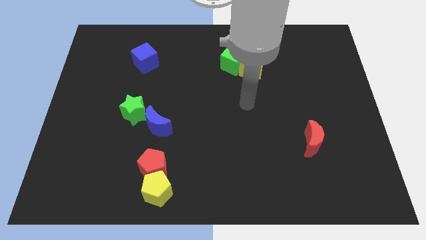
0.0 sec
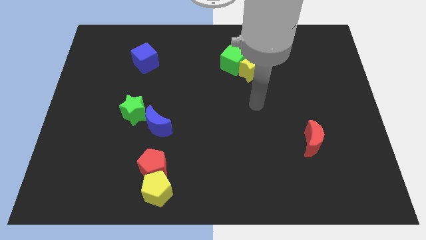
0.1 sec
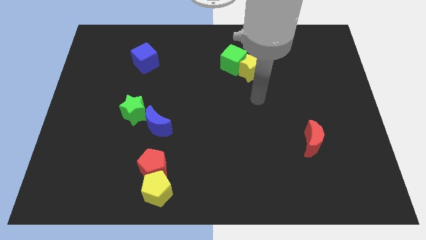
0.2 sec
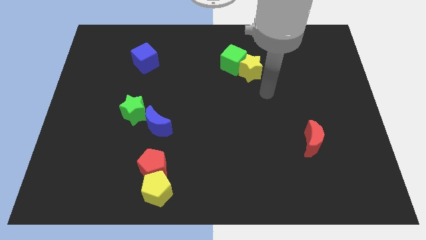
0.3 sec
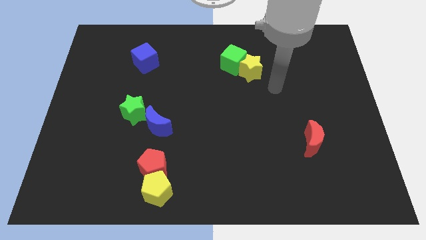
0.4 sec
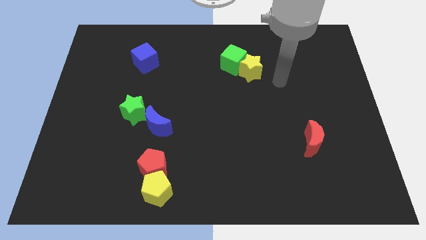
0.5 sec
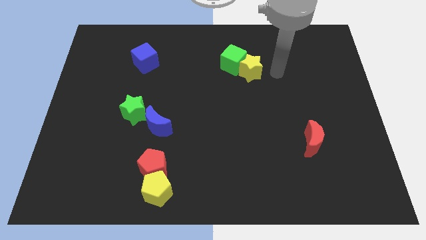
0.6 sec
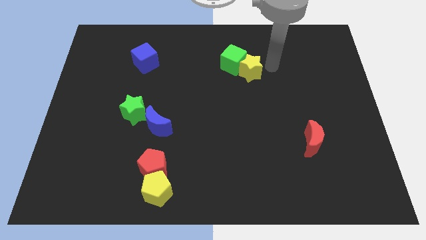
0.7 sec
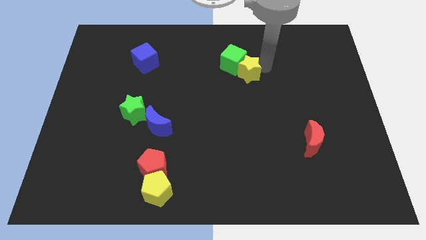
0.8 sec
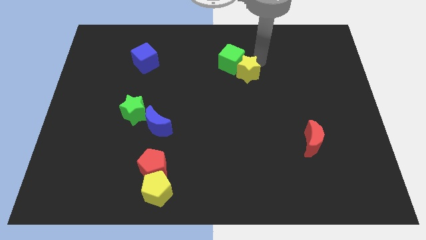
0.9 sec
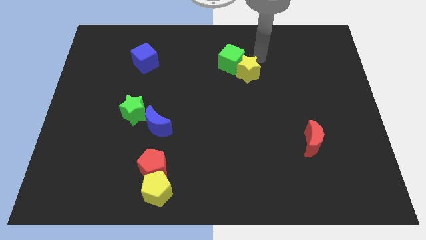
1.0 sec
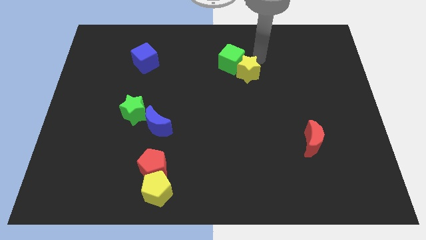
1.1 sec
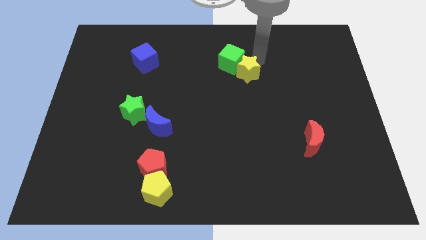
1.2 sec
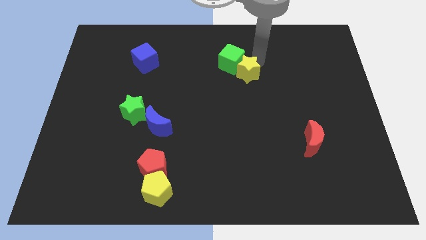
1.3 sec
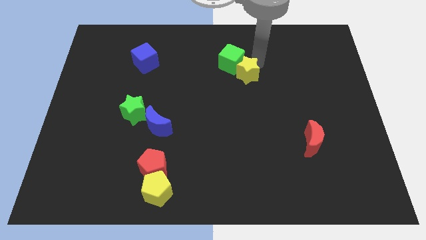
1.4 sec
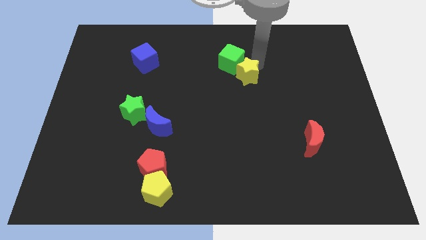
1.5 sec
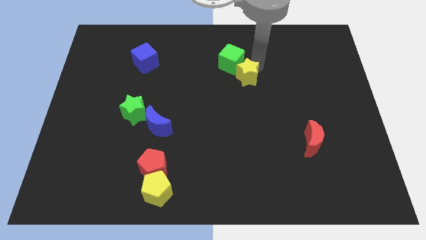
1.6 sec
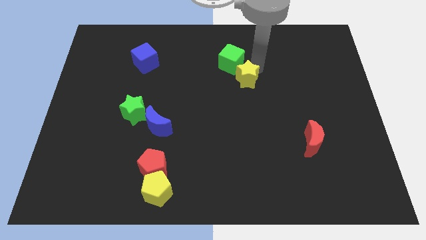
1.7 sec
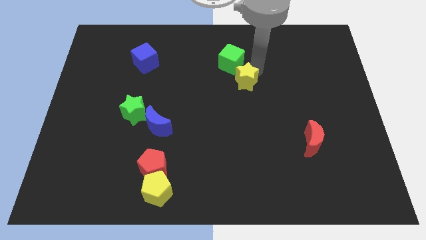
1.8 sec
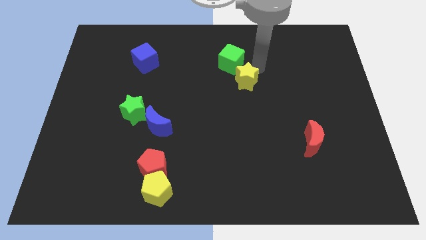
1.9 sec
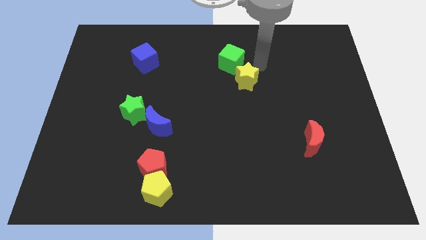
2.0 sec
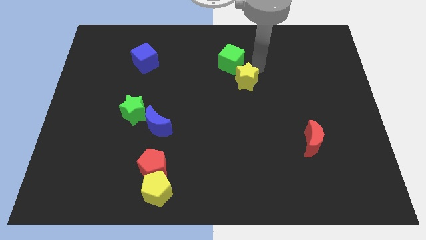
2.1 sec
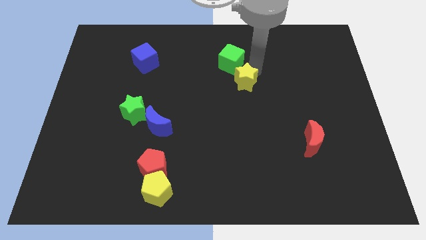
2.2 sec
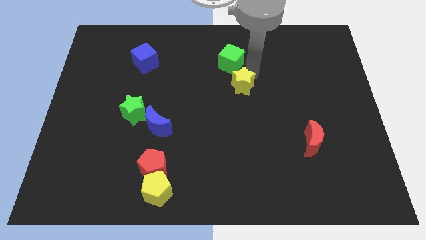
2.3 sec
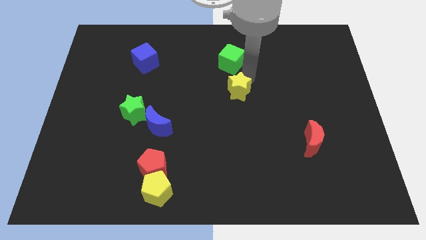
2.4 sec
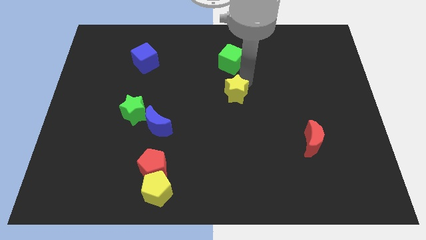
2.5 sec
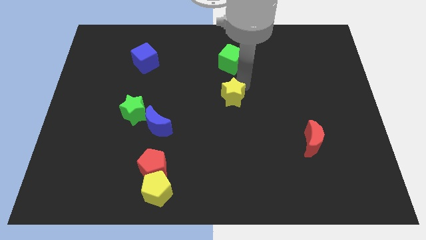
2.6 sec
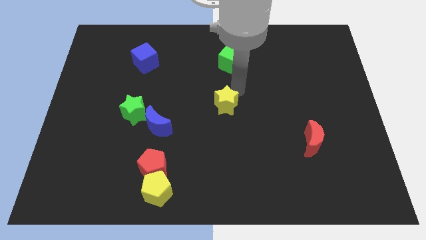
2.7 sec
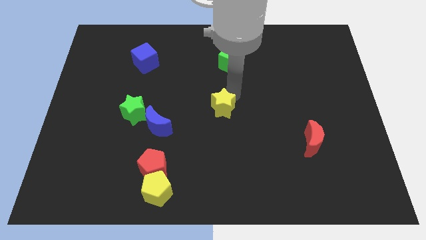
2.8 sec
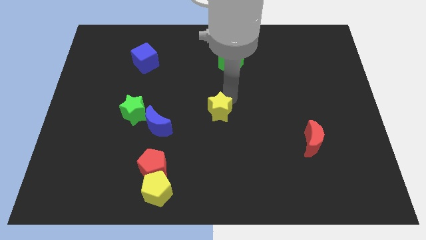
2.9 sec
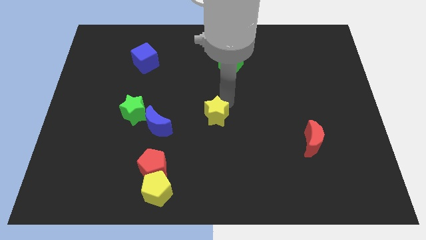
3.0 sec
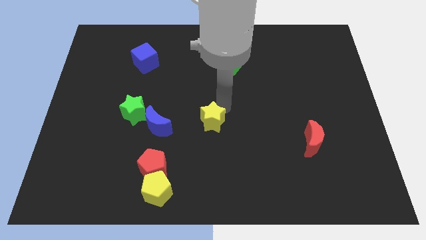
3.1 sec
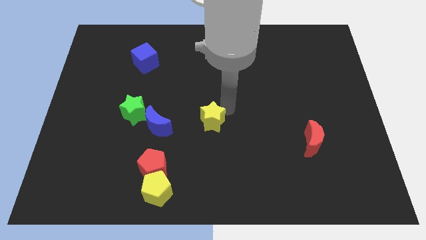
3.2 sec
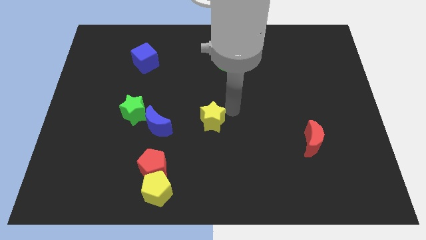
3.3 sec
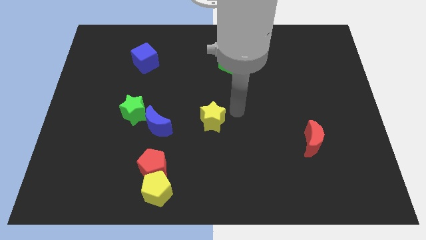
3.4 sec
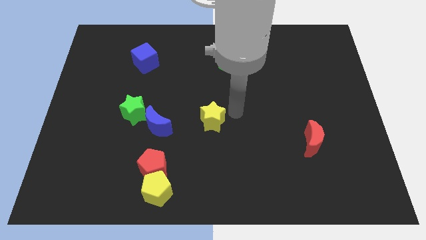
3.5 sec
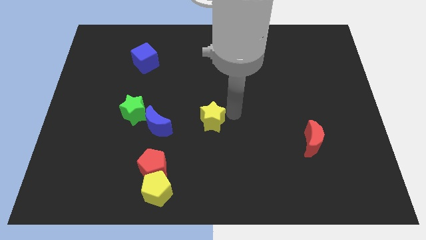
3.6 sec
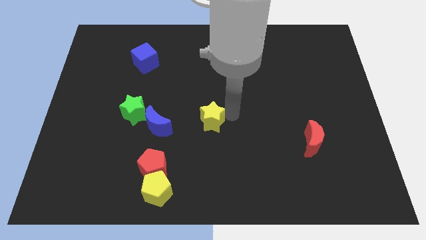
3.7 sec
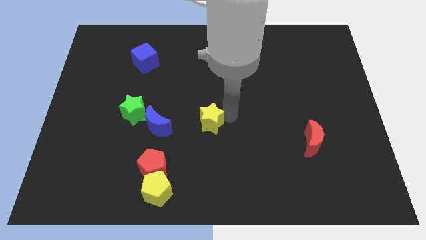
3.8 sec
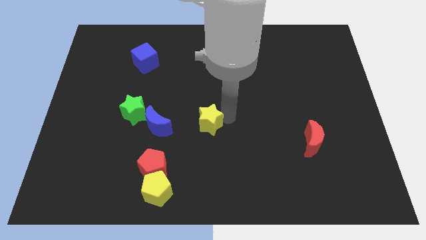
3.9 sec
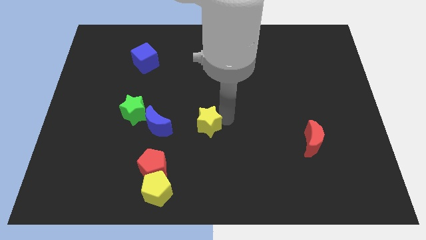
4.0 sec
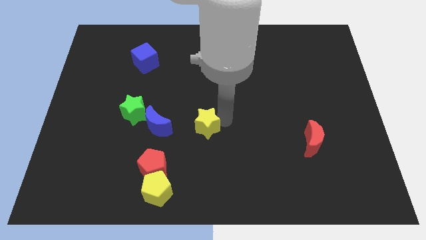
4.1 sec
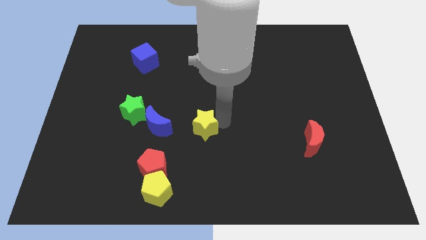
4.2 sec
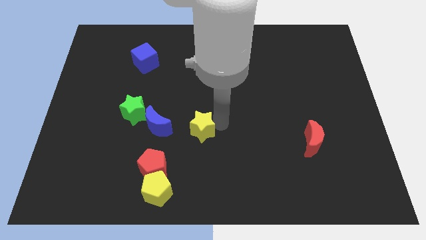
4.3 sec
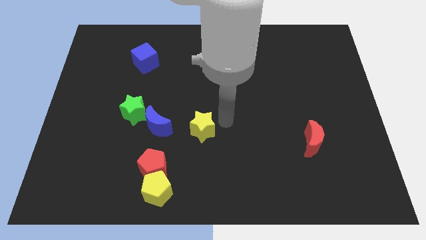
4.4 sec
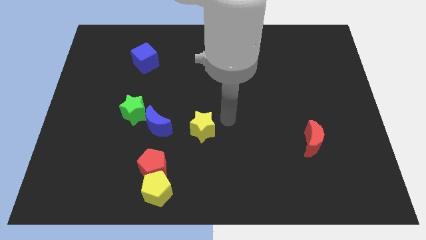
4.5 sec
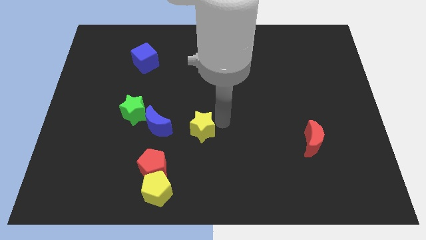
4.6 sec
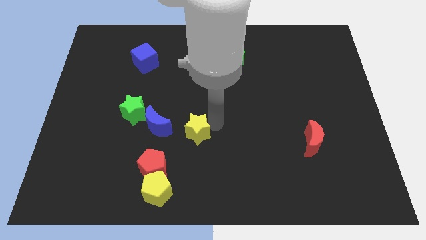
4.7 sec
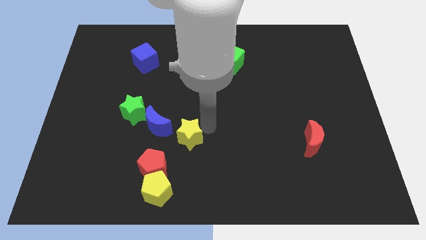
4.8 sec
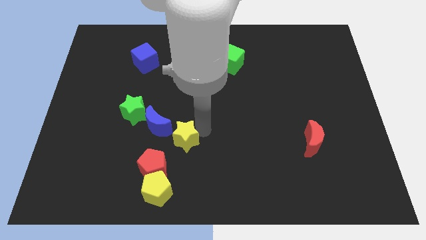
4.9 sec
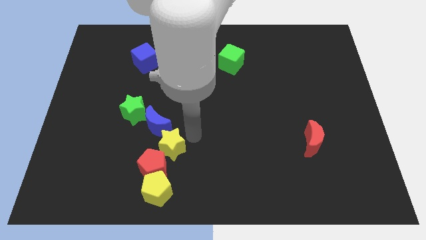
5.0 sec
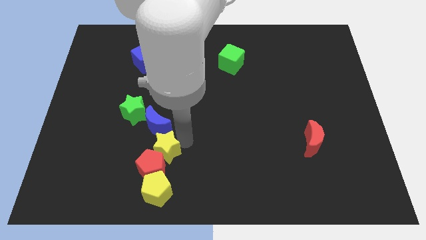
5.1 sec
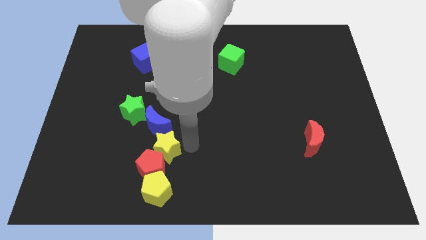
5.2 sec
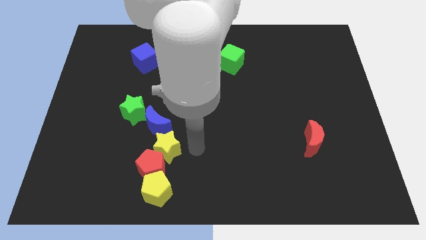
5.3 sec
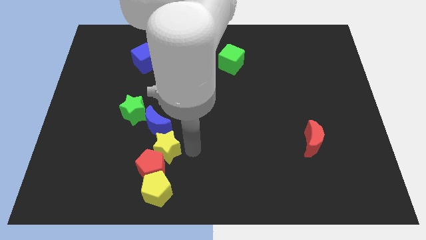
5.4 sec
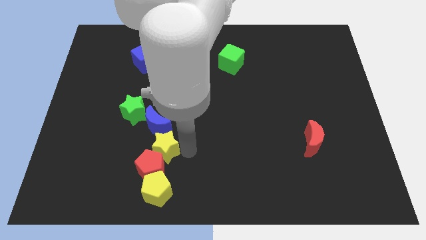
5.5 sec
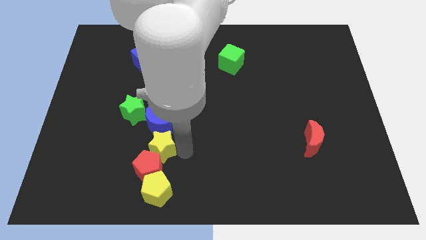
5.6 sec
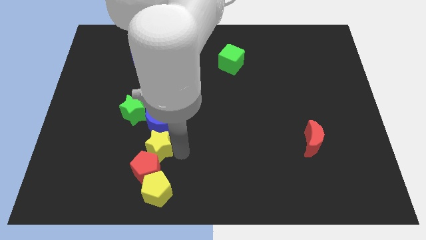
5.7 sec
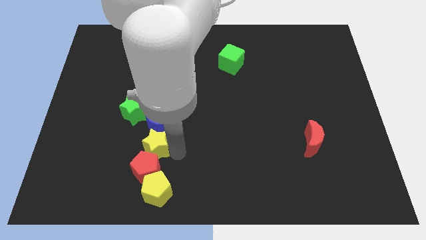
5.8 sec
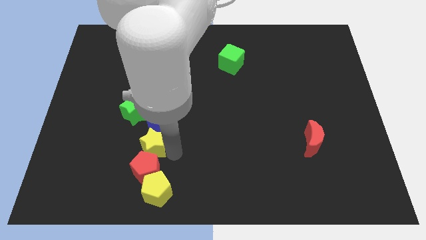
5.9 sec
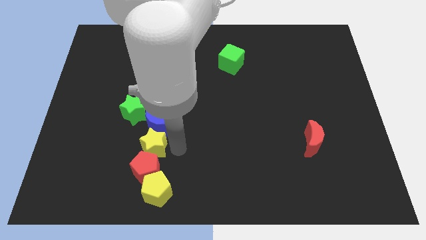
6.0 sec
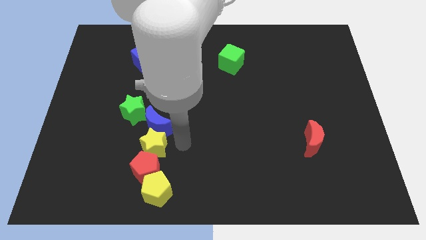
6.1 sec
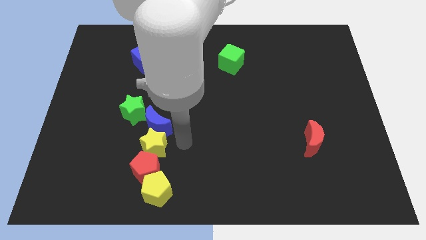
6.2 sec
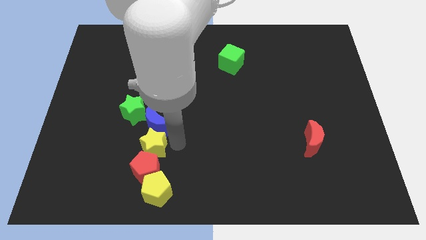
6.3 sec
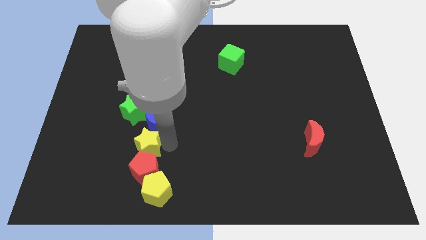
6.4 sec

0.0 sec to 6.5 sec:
move the yellow star below the green star
